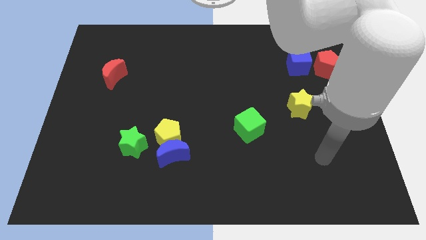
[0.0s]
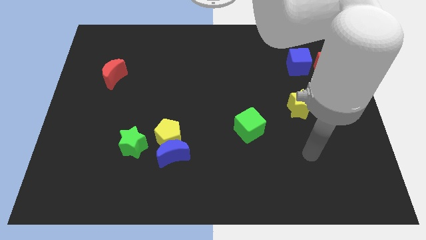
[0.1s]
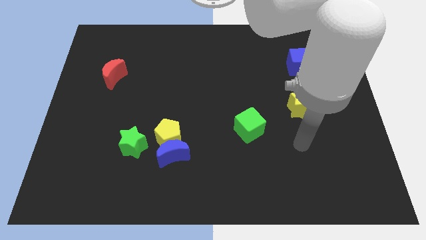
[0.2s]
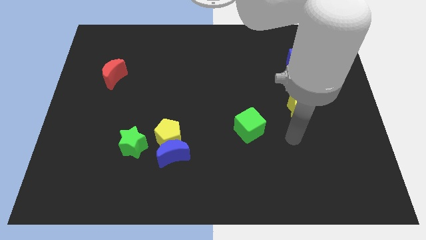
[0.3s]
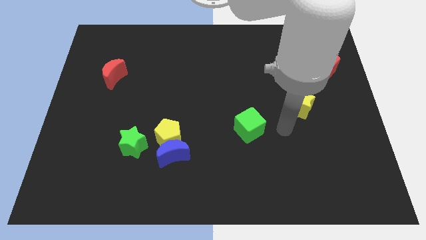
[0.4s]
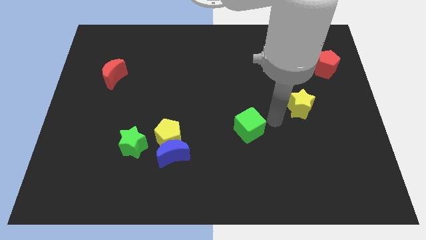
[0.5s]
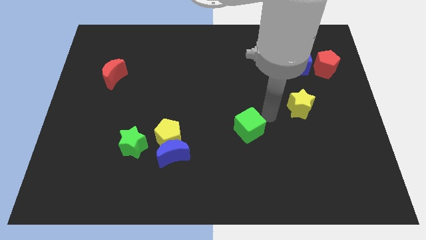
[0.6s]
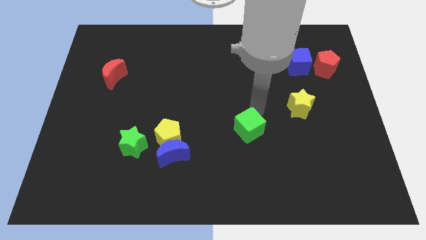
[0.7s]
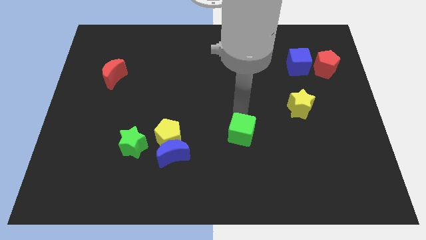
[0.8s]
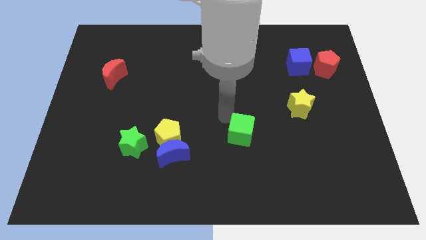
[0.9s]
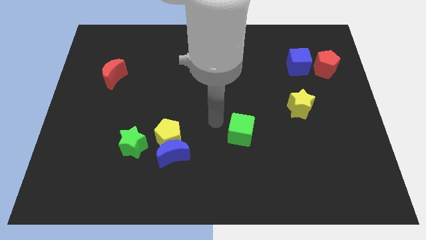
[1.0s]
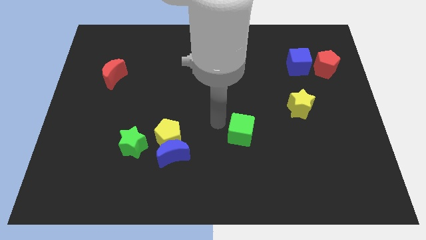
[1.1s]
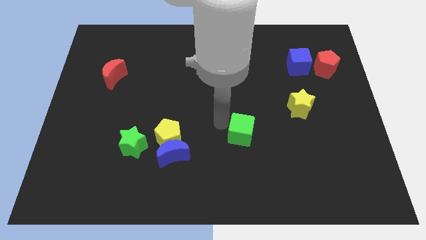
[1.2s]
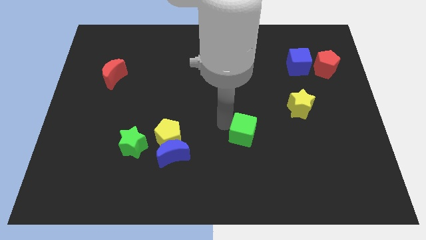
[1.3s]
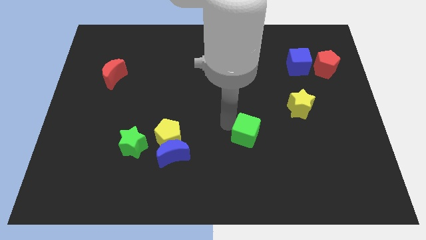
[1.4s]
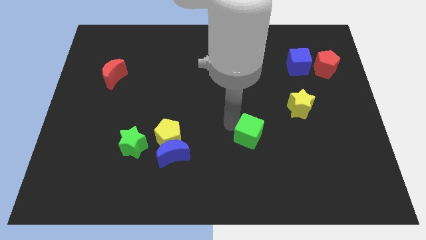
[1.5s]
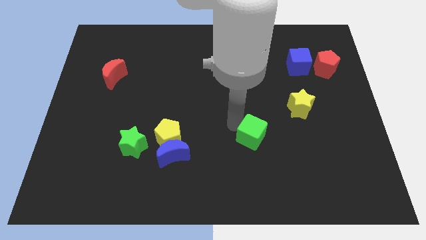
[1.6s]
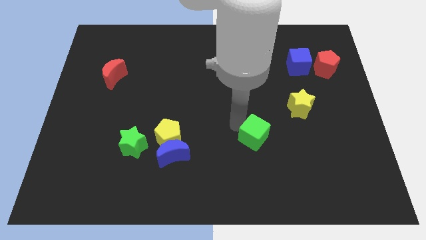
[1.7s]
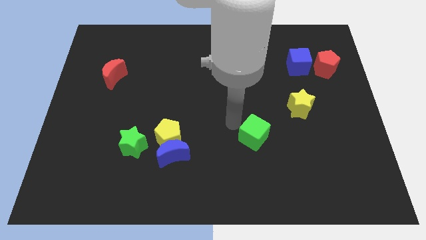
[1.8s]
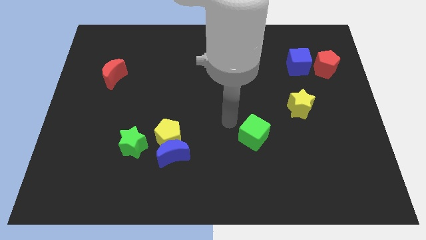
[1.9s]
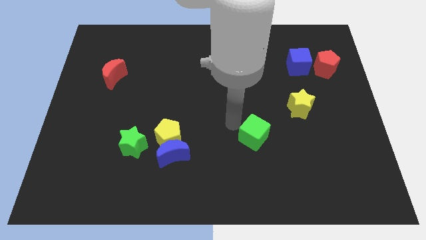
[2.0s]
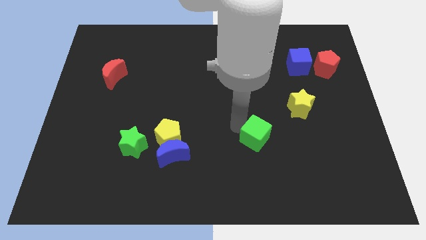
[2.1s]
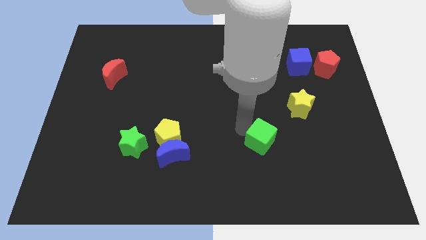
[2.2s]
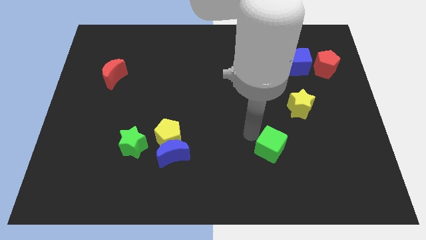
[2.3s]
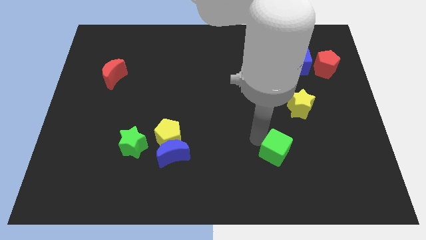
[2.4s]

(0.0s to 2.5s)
move the green cube slightly downwards and to the right diagonally

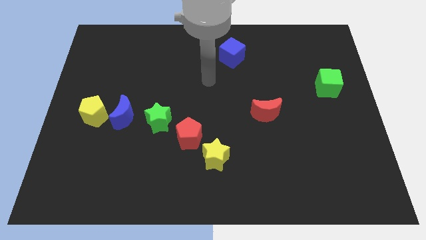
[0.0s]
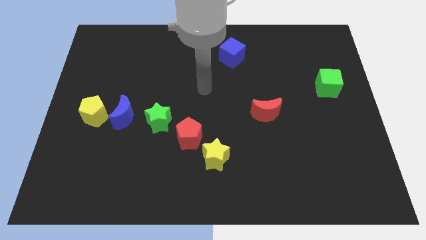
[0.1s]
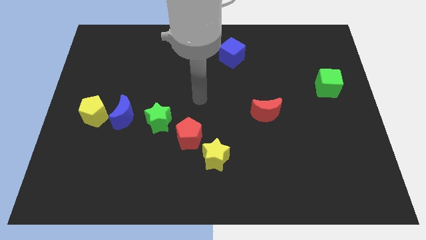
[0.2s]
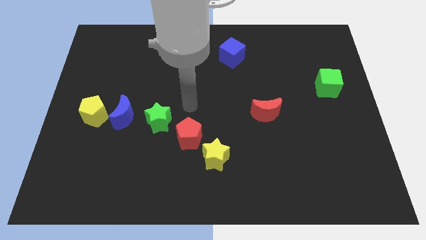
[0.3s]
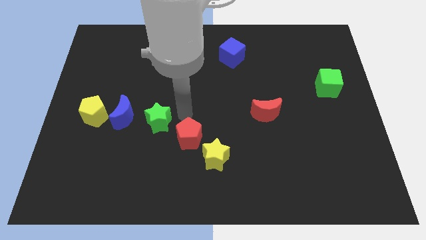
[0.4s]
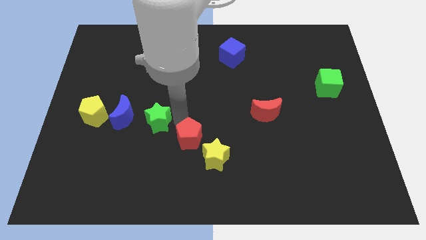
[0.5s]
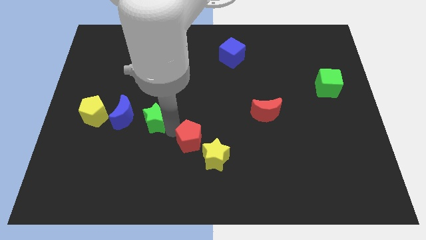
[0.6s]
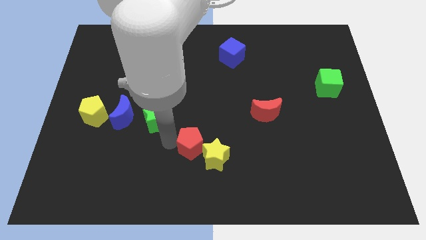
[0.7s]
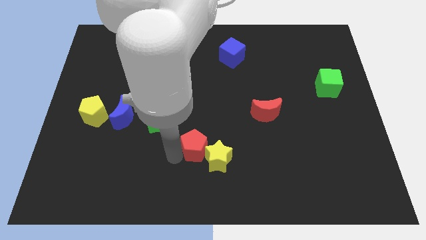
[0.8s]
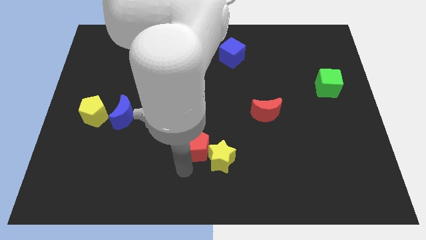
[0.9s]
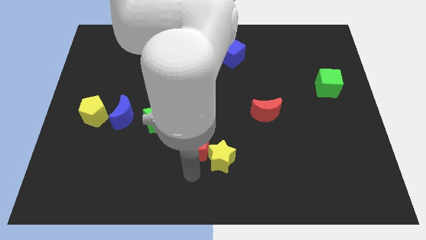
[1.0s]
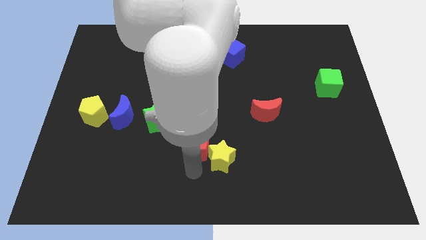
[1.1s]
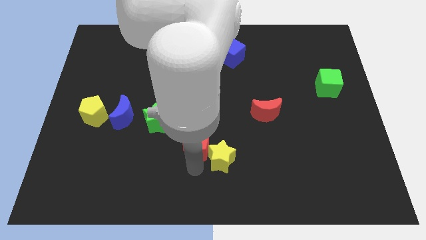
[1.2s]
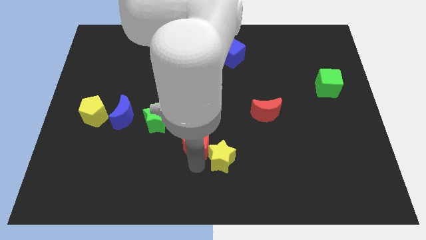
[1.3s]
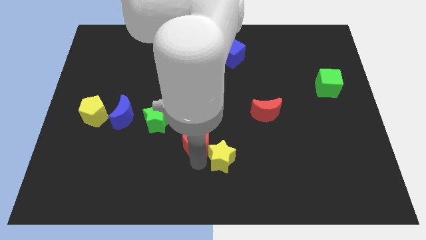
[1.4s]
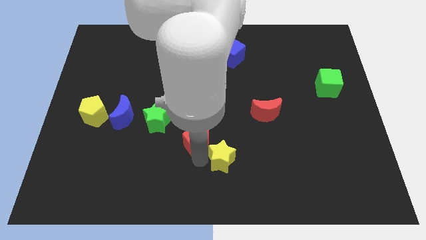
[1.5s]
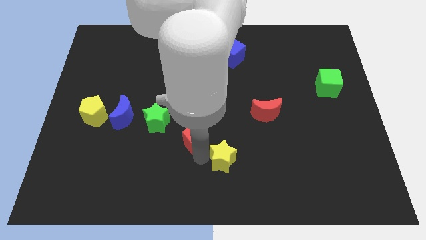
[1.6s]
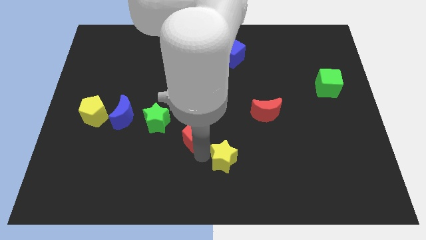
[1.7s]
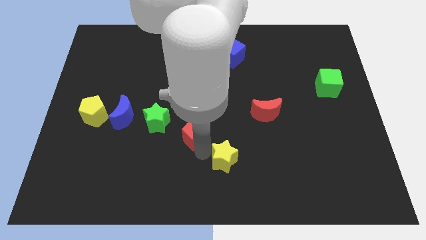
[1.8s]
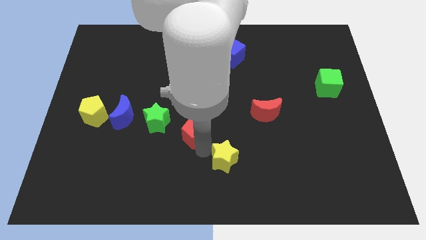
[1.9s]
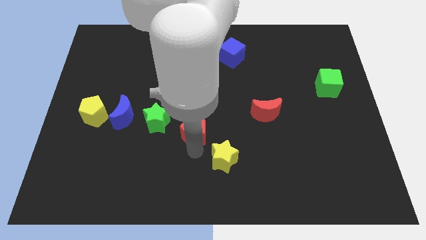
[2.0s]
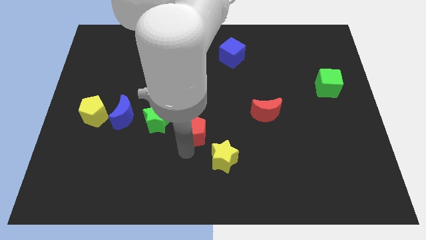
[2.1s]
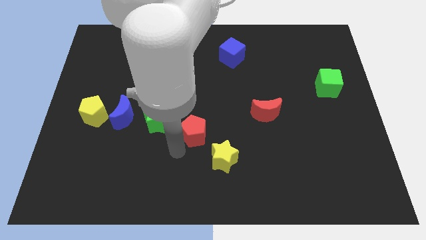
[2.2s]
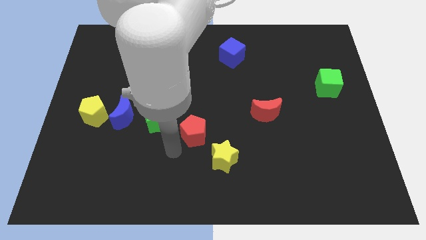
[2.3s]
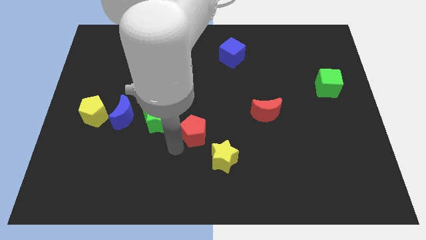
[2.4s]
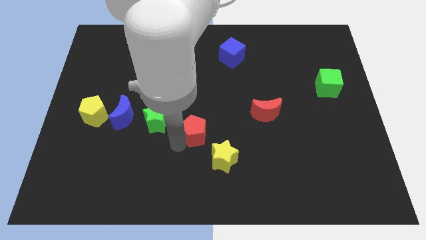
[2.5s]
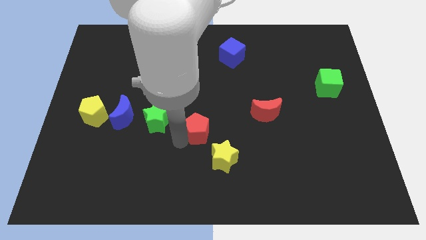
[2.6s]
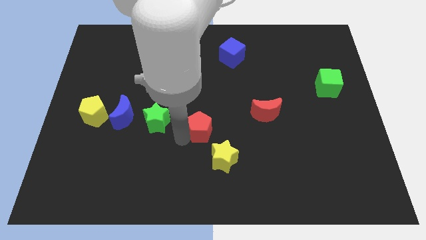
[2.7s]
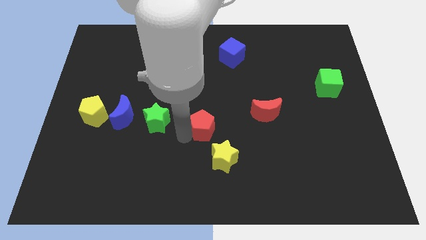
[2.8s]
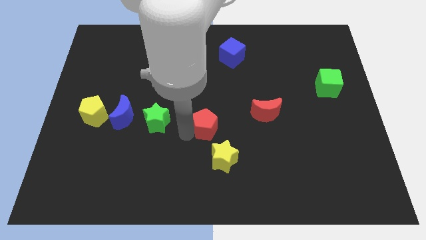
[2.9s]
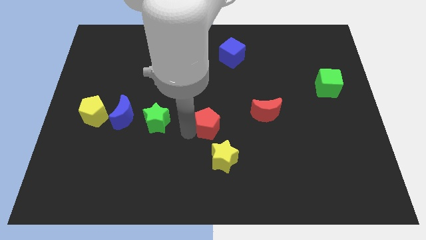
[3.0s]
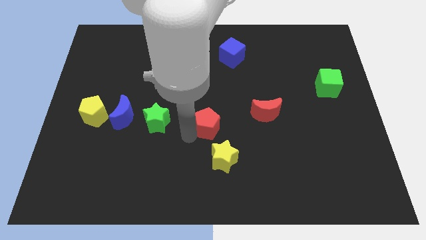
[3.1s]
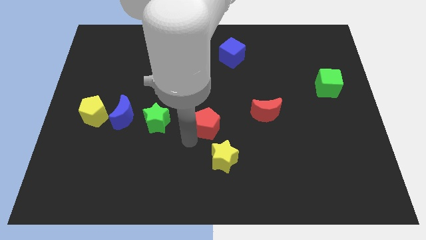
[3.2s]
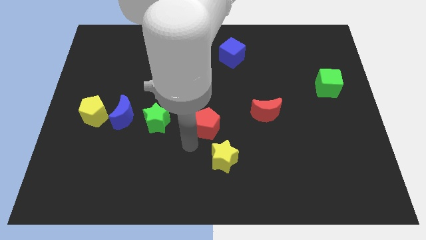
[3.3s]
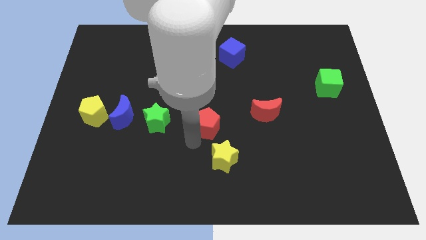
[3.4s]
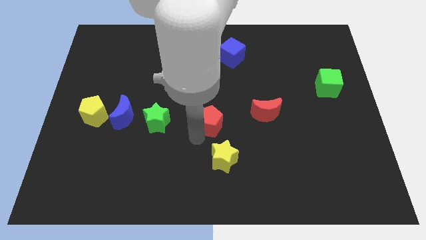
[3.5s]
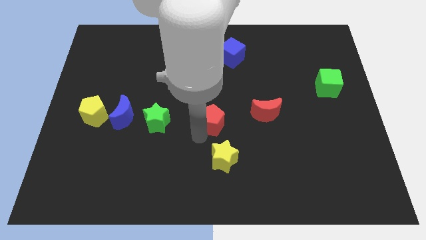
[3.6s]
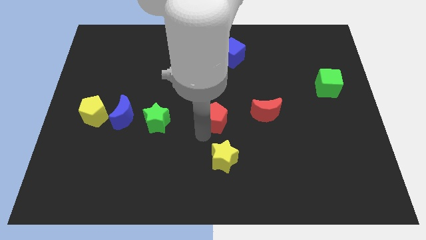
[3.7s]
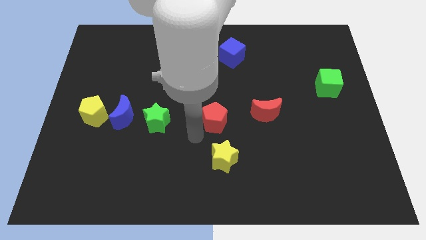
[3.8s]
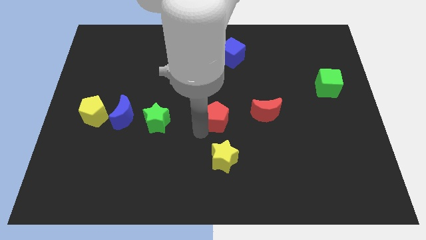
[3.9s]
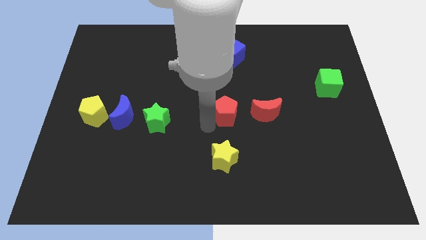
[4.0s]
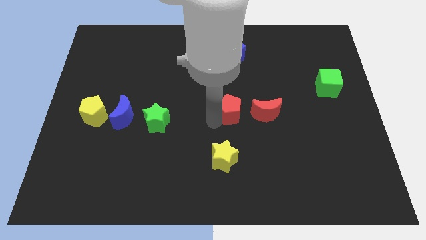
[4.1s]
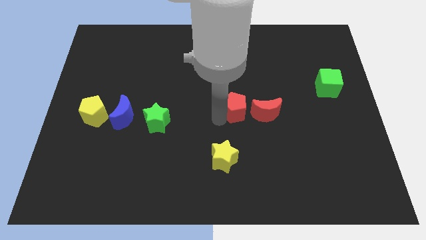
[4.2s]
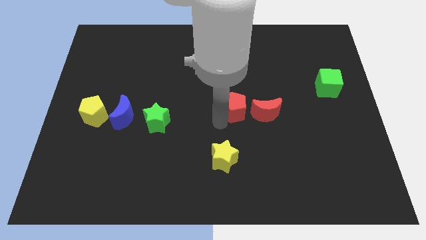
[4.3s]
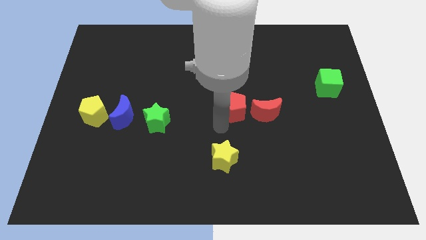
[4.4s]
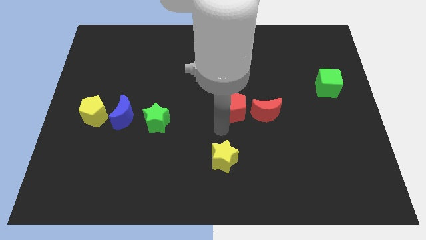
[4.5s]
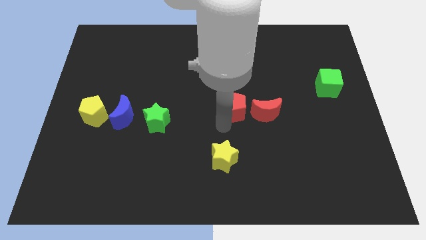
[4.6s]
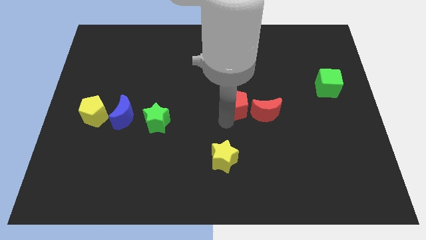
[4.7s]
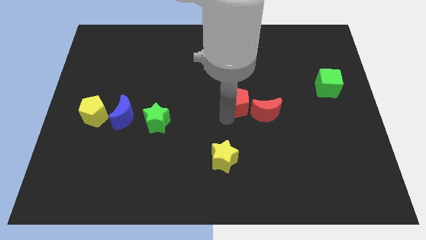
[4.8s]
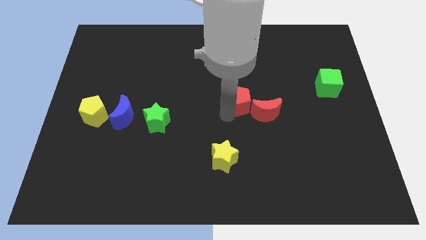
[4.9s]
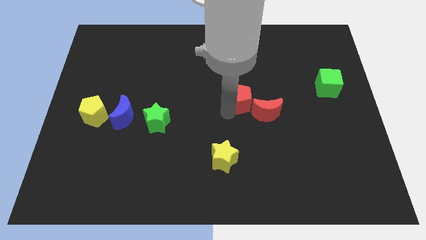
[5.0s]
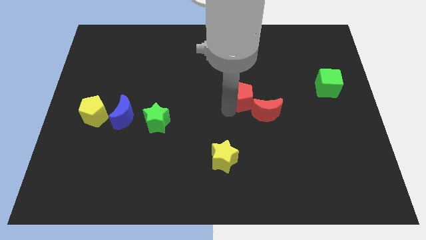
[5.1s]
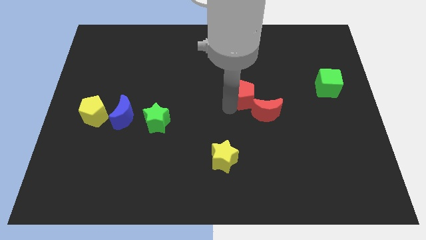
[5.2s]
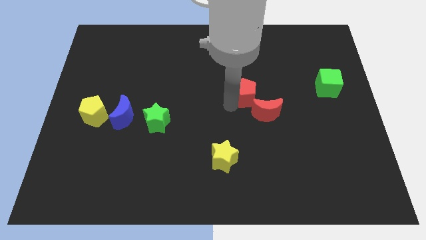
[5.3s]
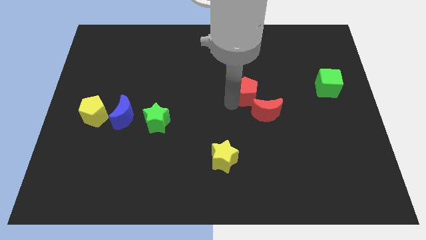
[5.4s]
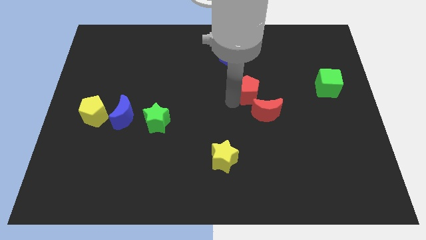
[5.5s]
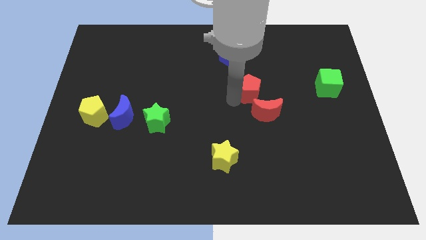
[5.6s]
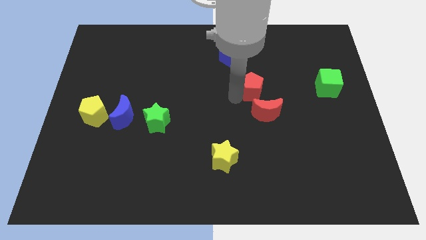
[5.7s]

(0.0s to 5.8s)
push the red pentagon up and right
